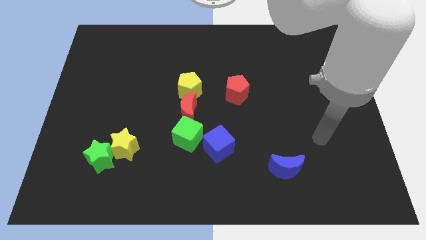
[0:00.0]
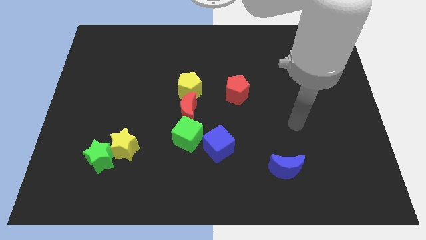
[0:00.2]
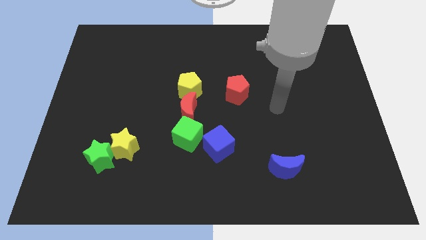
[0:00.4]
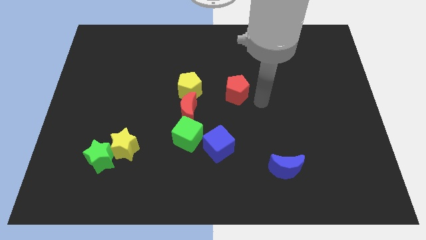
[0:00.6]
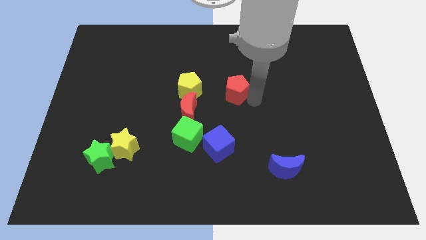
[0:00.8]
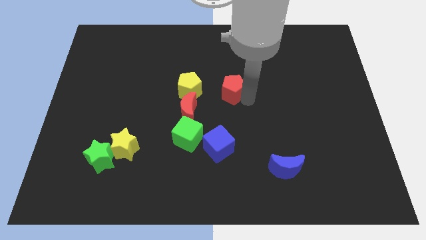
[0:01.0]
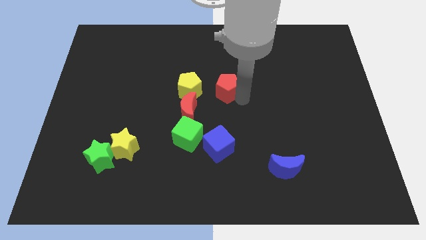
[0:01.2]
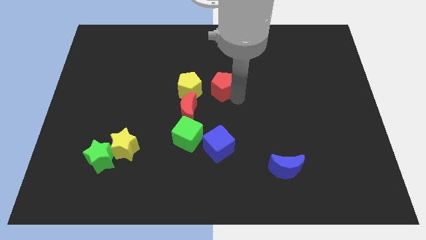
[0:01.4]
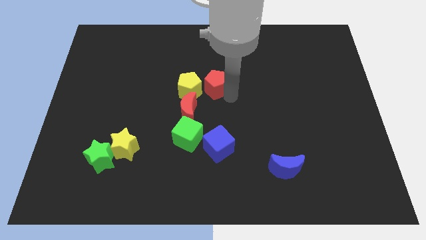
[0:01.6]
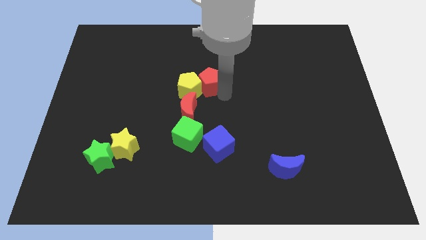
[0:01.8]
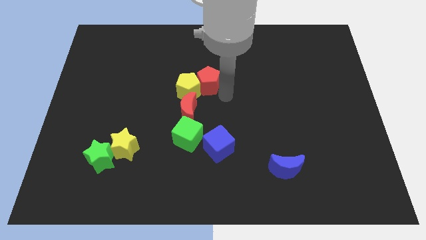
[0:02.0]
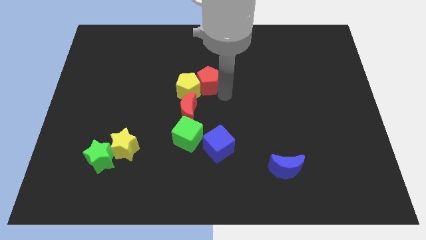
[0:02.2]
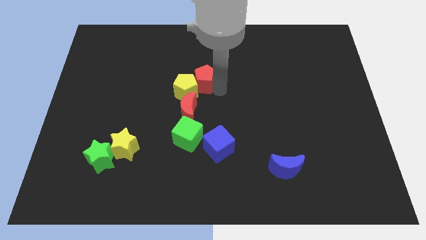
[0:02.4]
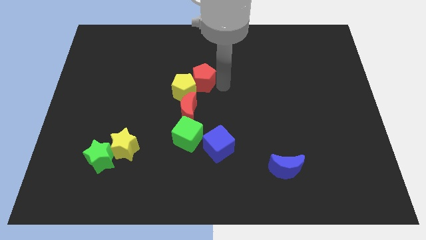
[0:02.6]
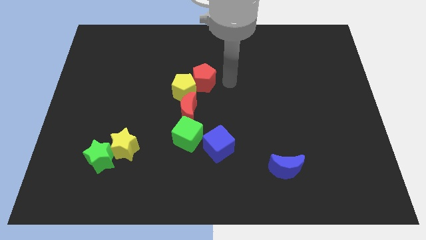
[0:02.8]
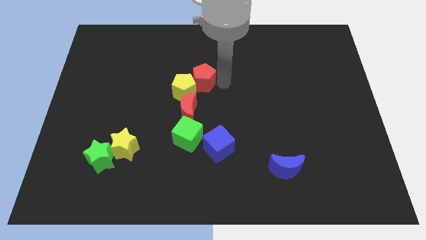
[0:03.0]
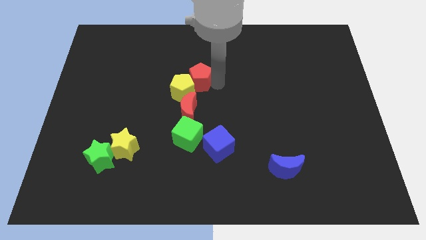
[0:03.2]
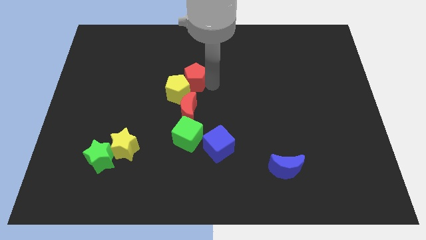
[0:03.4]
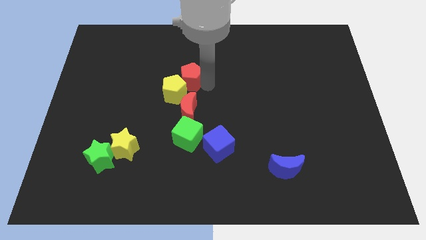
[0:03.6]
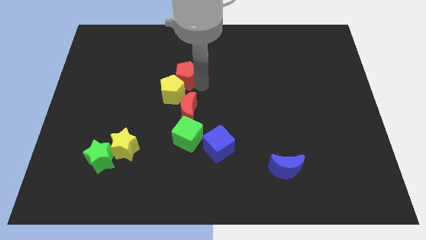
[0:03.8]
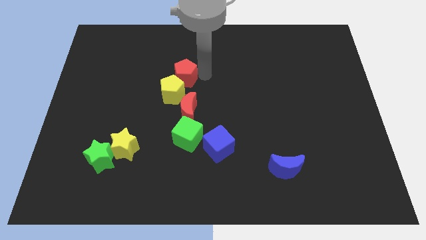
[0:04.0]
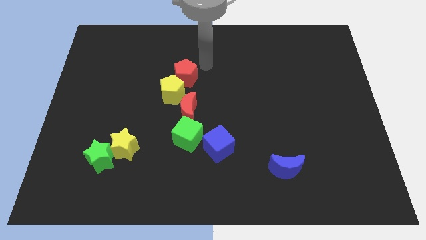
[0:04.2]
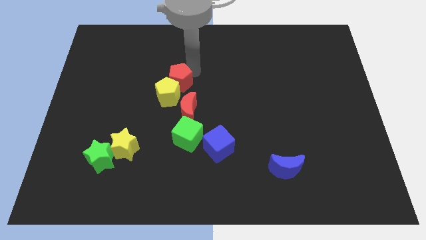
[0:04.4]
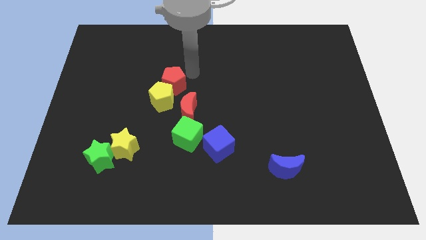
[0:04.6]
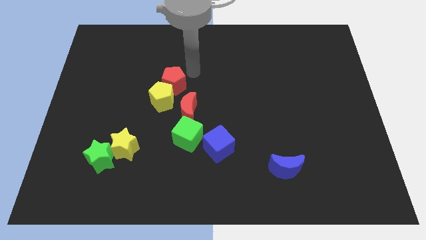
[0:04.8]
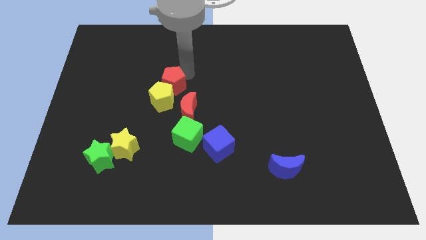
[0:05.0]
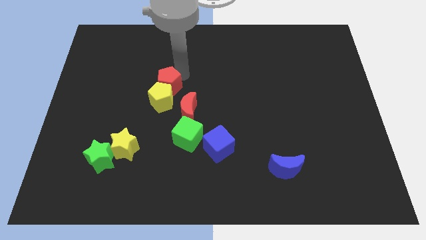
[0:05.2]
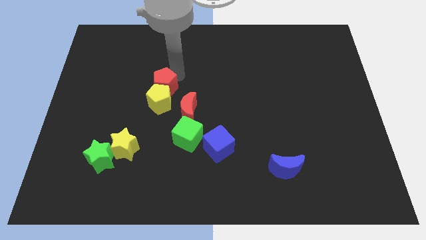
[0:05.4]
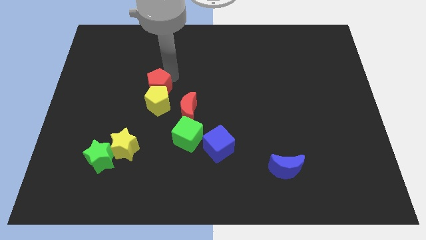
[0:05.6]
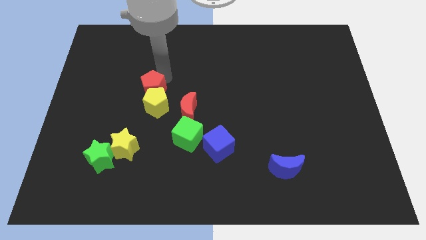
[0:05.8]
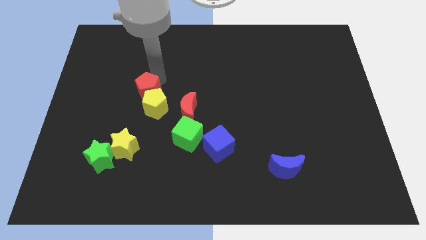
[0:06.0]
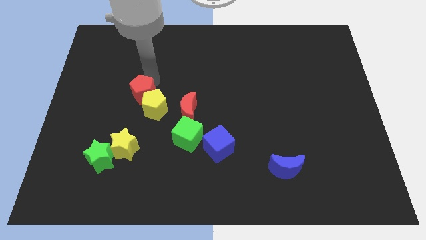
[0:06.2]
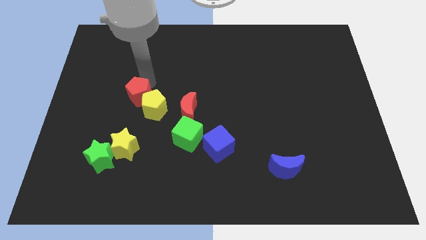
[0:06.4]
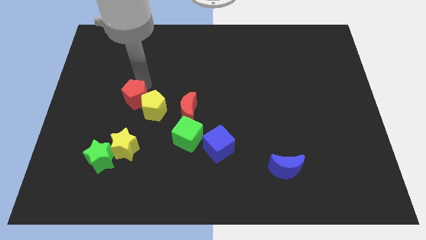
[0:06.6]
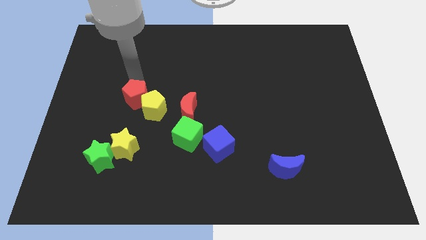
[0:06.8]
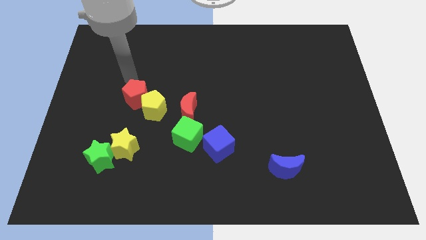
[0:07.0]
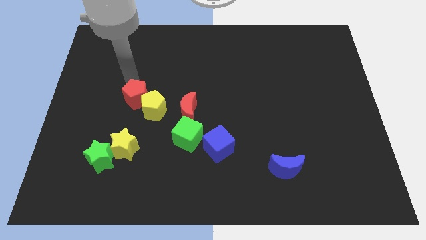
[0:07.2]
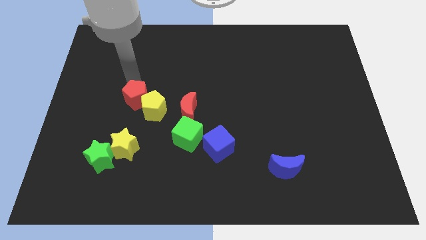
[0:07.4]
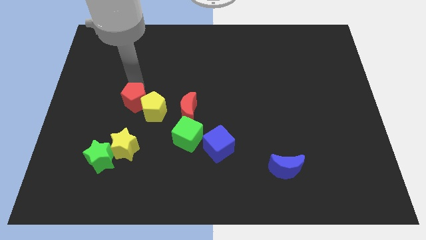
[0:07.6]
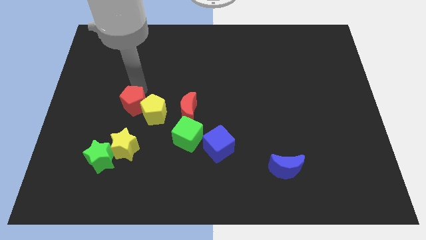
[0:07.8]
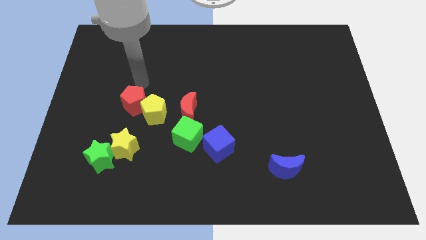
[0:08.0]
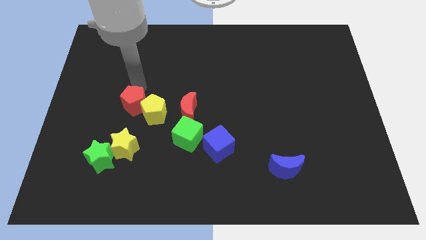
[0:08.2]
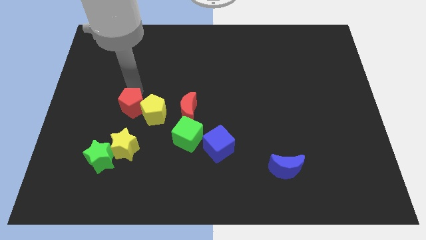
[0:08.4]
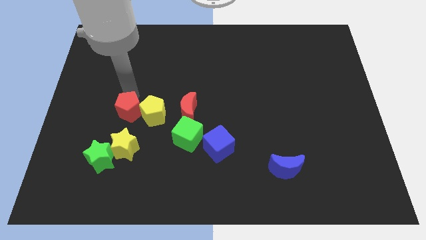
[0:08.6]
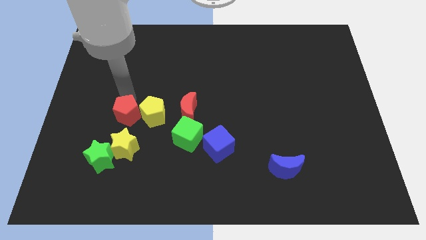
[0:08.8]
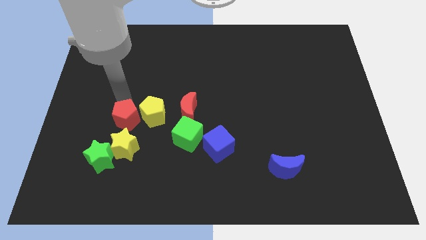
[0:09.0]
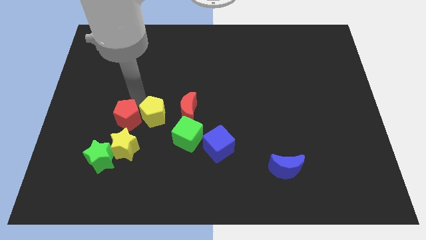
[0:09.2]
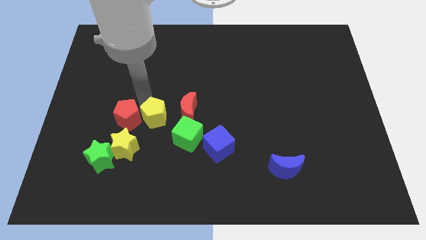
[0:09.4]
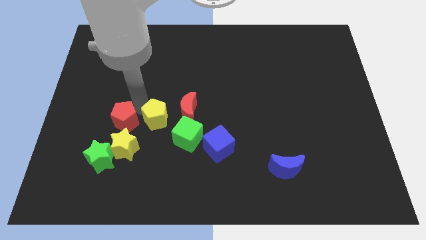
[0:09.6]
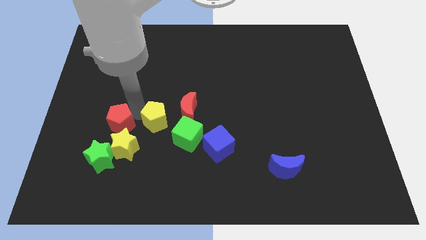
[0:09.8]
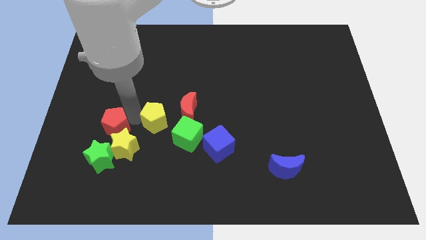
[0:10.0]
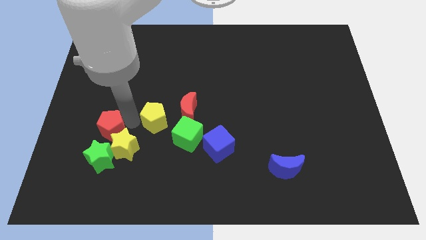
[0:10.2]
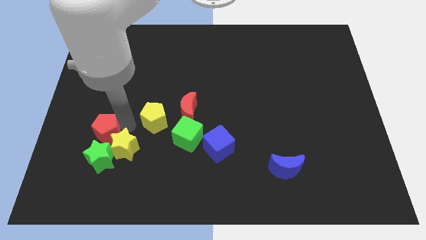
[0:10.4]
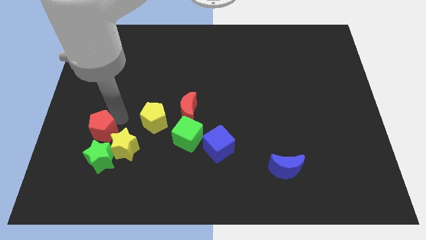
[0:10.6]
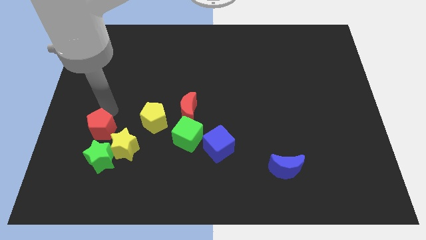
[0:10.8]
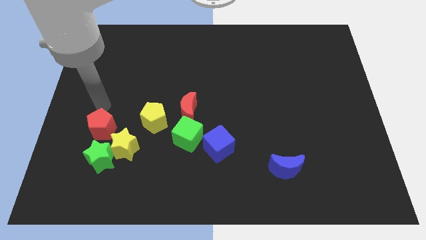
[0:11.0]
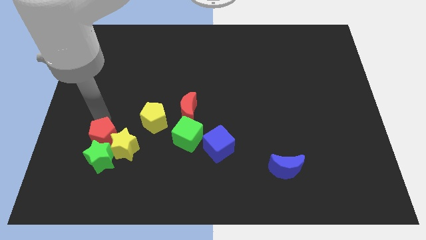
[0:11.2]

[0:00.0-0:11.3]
slide the red pentagon close to the green star
